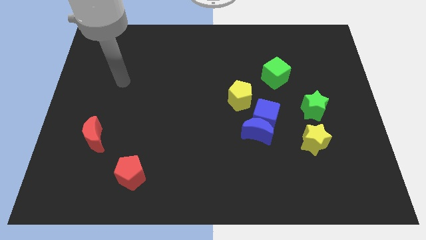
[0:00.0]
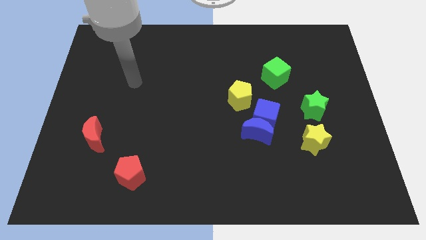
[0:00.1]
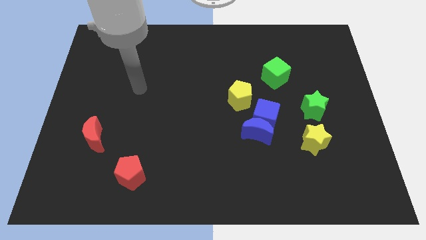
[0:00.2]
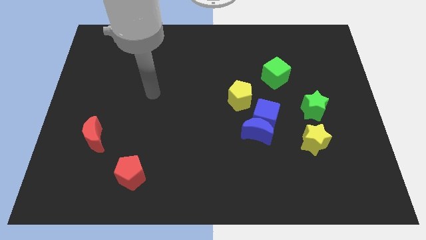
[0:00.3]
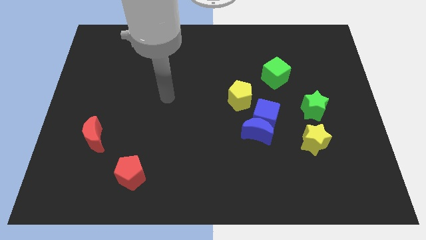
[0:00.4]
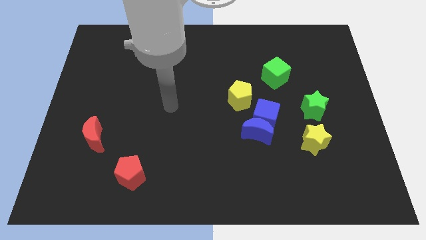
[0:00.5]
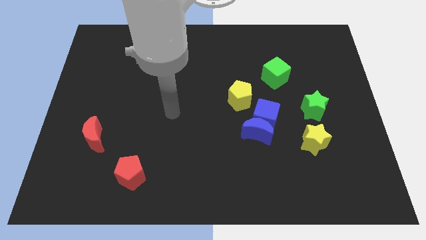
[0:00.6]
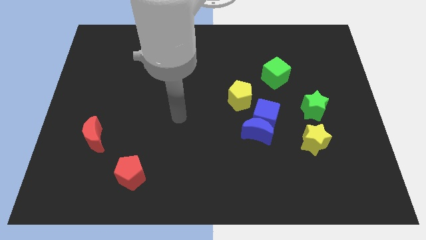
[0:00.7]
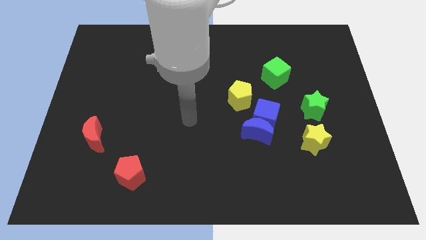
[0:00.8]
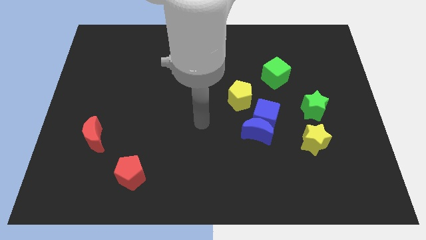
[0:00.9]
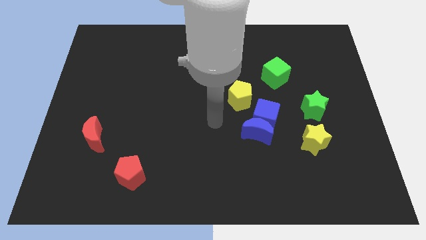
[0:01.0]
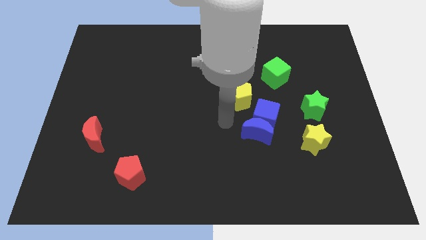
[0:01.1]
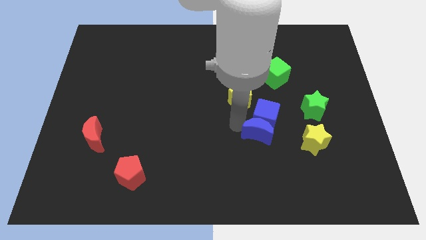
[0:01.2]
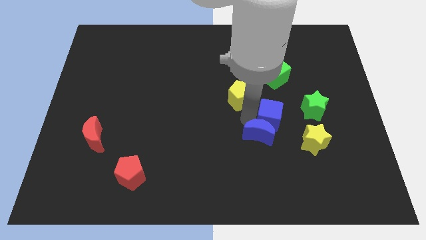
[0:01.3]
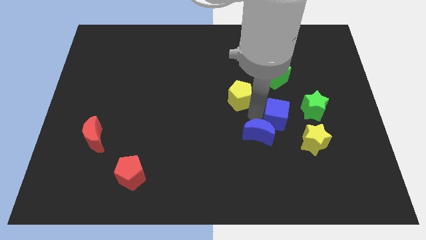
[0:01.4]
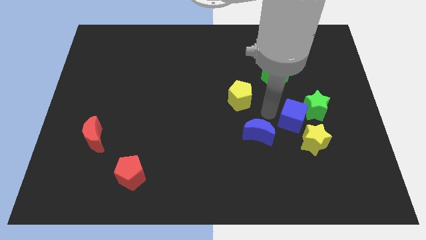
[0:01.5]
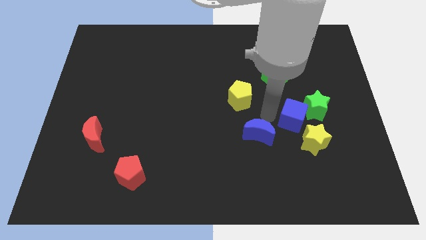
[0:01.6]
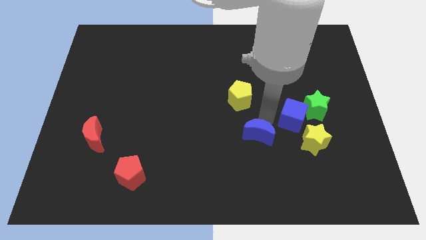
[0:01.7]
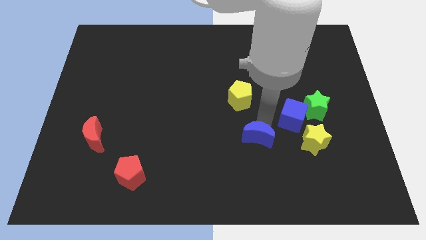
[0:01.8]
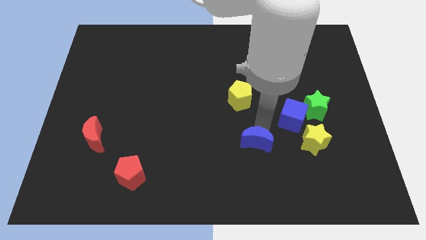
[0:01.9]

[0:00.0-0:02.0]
pull the blue moon apart from the blue cube

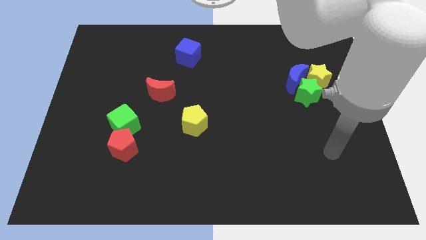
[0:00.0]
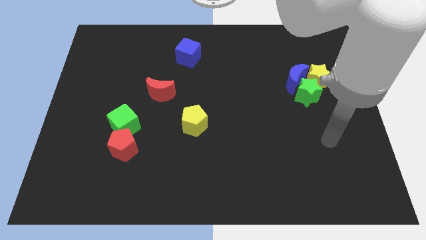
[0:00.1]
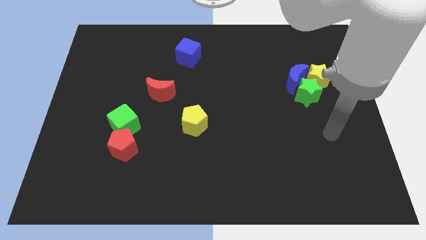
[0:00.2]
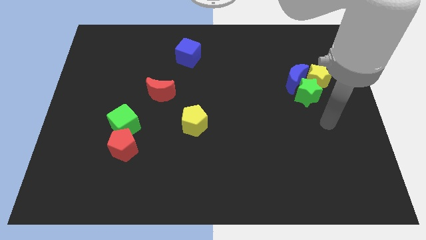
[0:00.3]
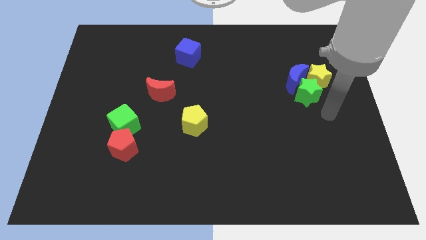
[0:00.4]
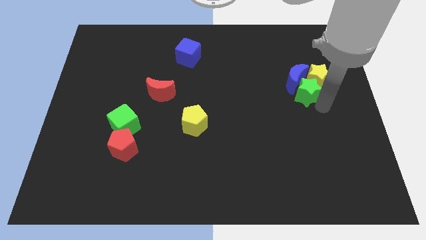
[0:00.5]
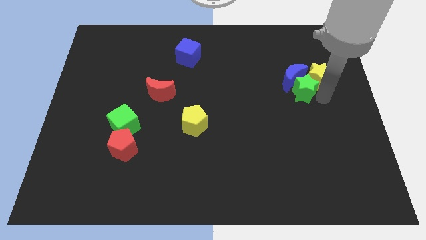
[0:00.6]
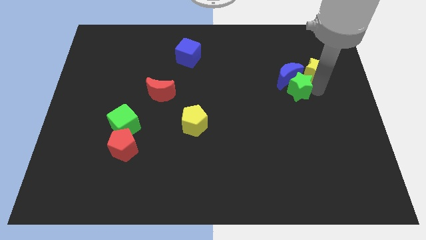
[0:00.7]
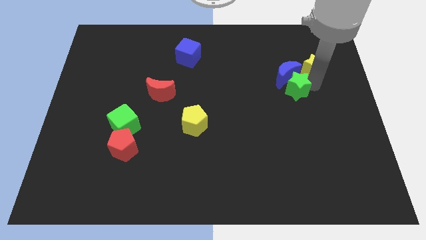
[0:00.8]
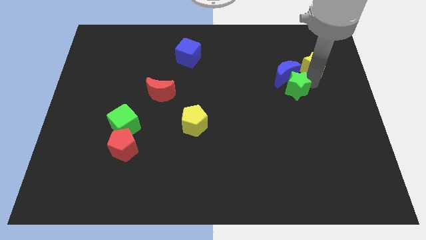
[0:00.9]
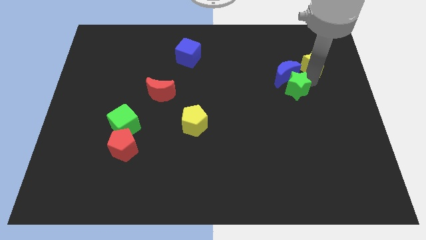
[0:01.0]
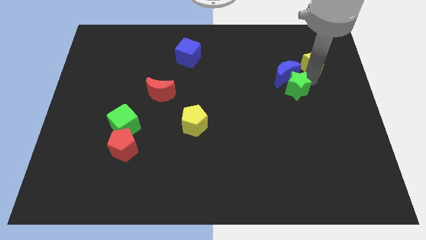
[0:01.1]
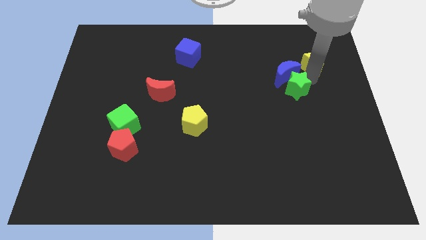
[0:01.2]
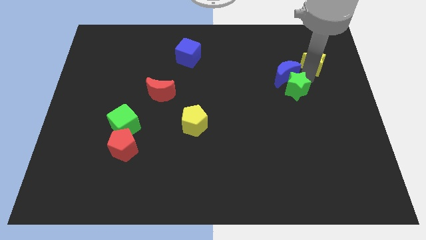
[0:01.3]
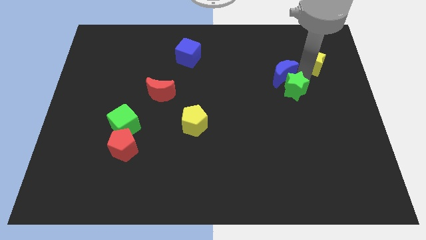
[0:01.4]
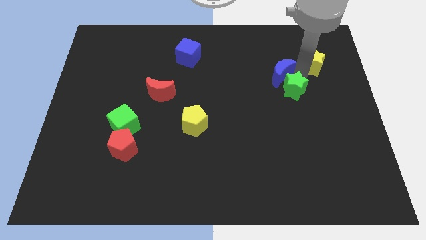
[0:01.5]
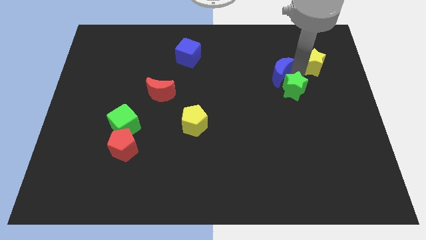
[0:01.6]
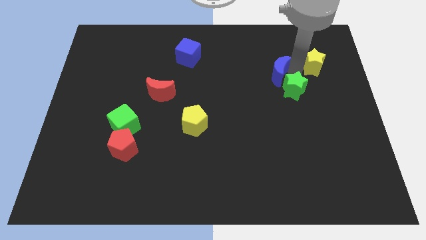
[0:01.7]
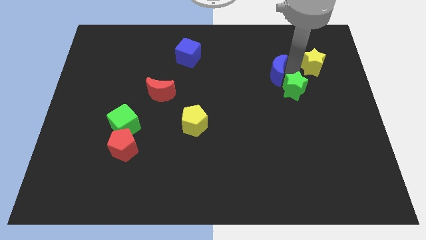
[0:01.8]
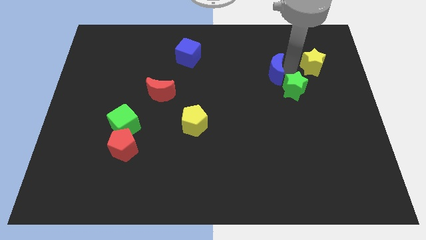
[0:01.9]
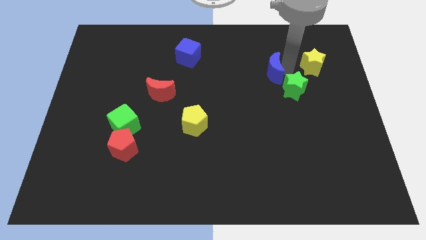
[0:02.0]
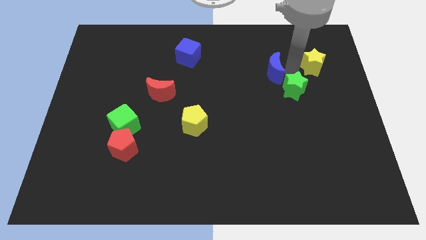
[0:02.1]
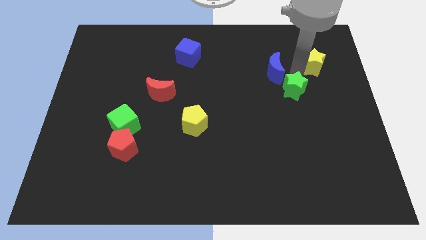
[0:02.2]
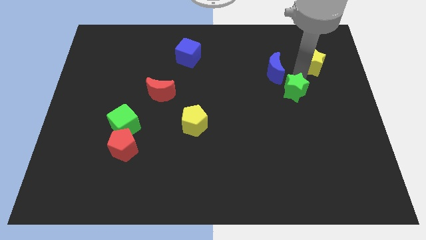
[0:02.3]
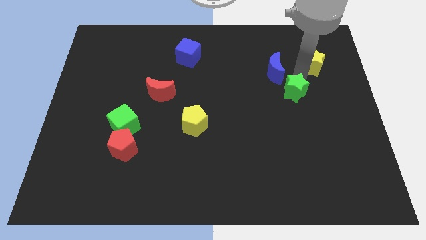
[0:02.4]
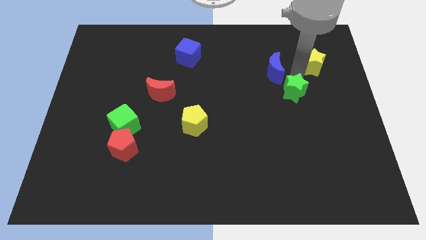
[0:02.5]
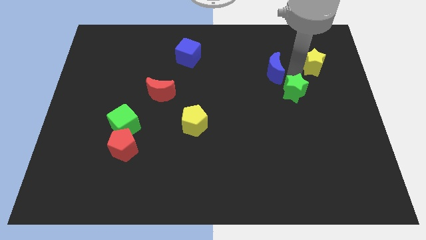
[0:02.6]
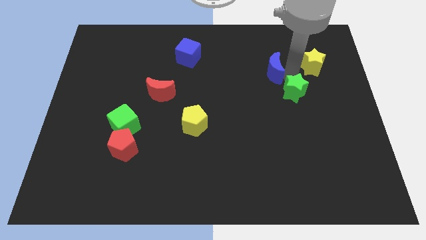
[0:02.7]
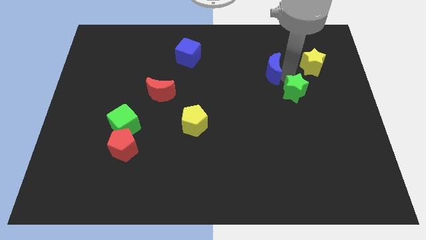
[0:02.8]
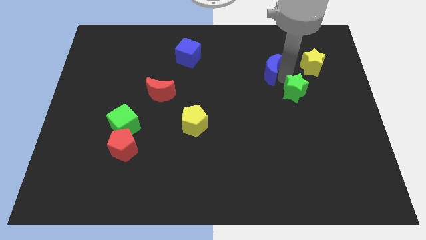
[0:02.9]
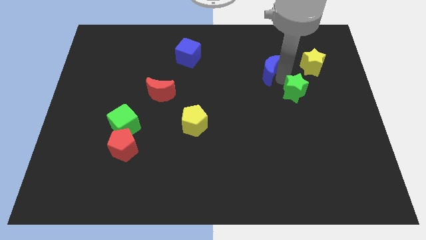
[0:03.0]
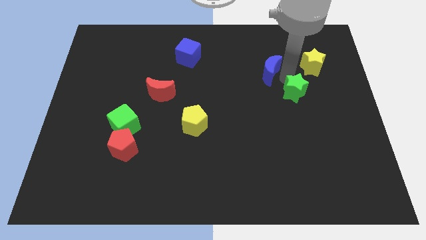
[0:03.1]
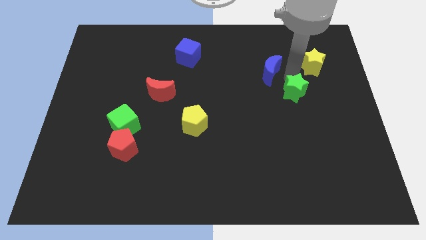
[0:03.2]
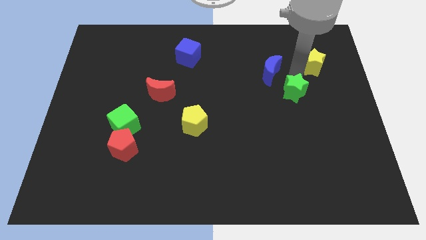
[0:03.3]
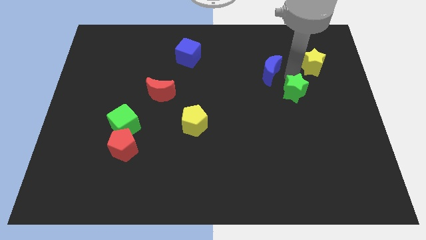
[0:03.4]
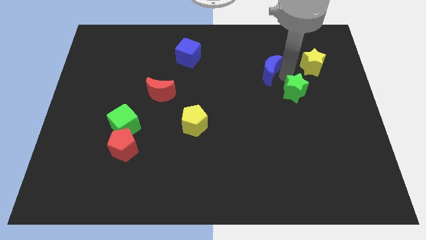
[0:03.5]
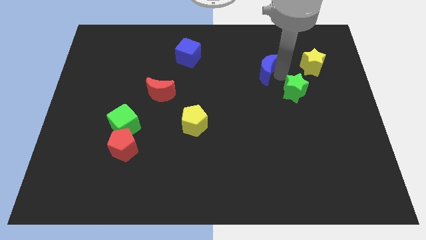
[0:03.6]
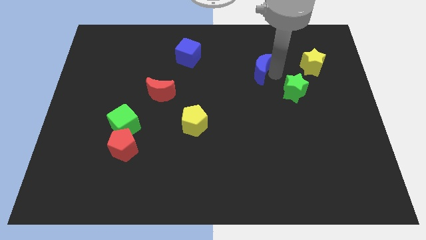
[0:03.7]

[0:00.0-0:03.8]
separate the blue moon from the green star and yellow star

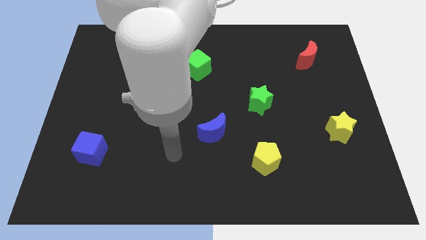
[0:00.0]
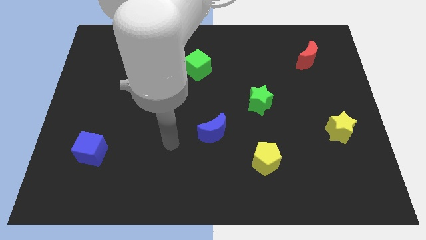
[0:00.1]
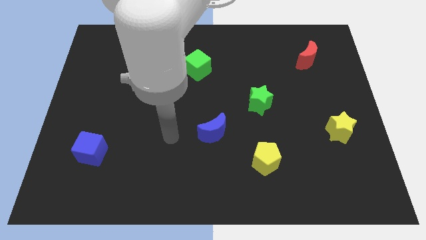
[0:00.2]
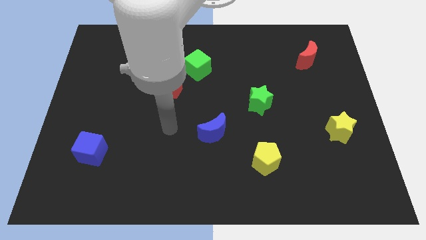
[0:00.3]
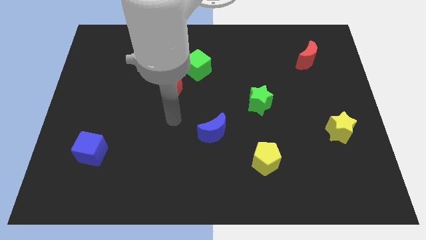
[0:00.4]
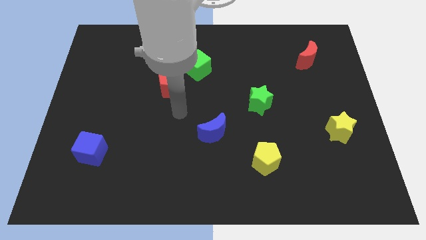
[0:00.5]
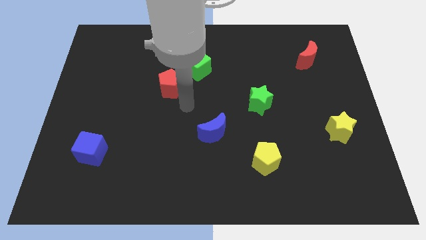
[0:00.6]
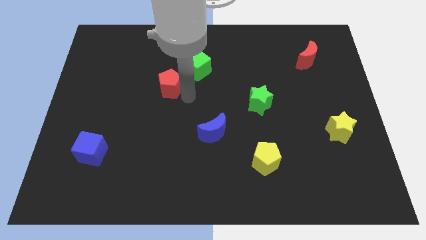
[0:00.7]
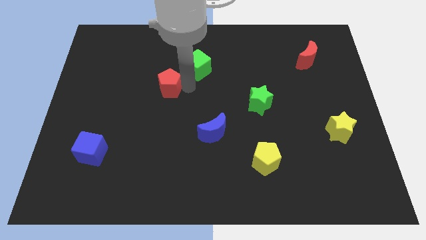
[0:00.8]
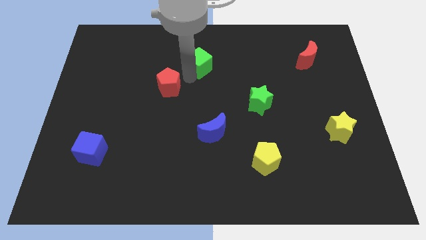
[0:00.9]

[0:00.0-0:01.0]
separate the red pentagon from the green cube

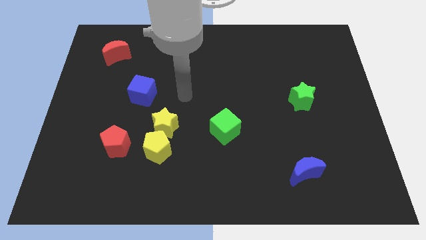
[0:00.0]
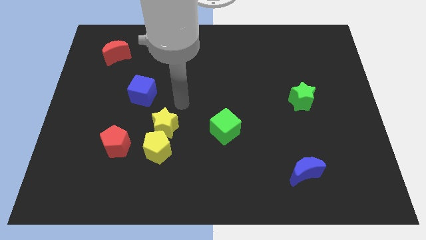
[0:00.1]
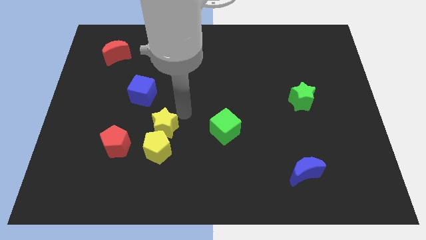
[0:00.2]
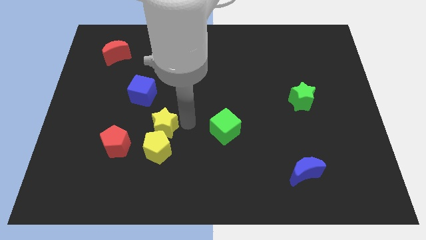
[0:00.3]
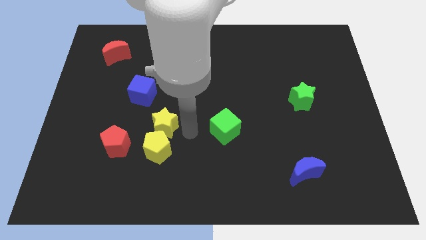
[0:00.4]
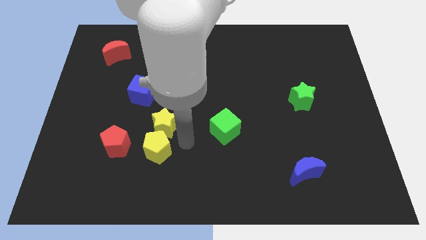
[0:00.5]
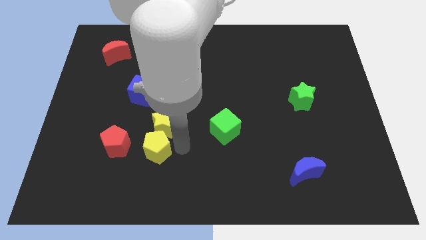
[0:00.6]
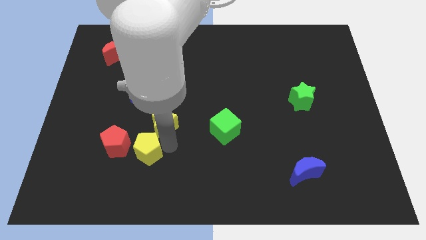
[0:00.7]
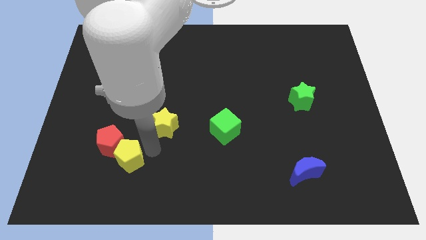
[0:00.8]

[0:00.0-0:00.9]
move the yellow star away from the yellow pentagon

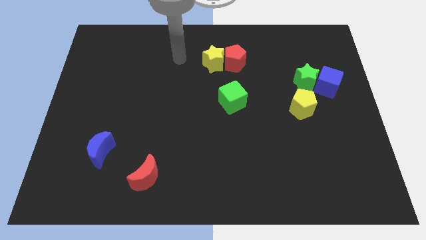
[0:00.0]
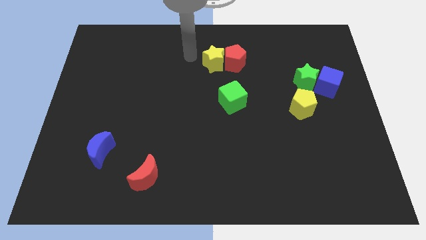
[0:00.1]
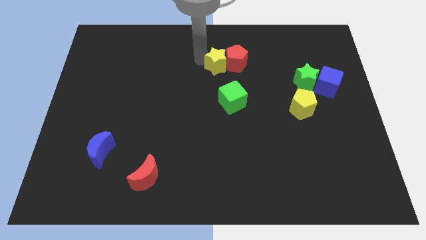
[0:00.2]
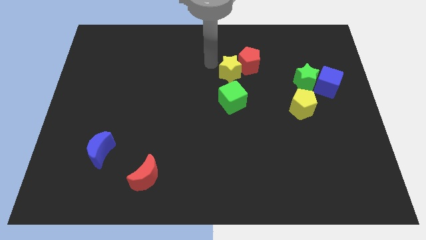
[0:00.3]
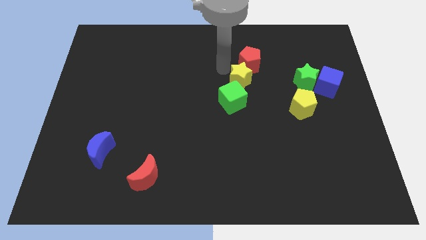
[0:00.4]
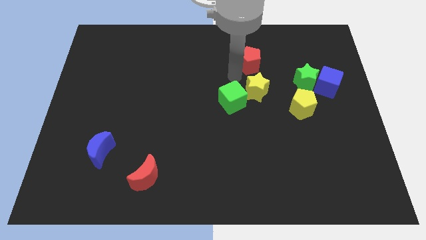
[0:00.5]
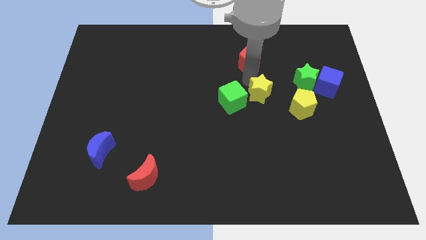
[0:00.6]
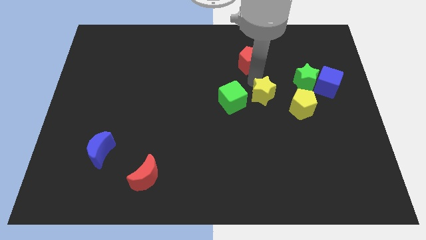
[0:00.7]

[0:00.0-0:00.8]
pull the red pentagon apart from the yellow star

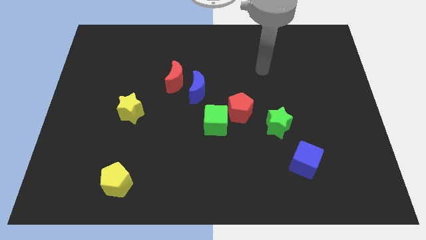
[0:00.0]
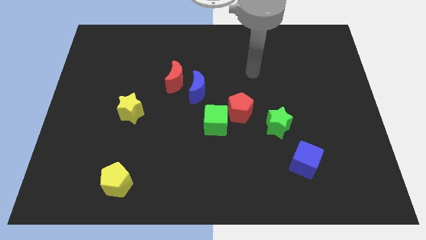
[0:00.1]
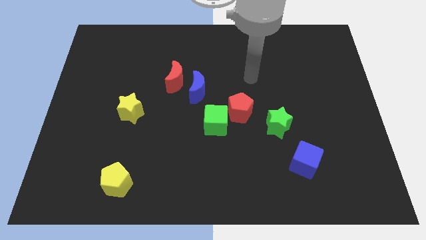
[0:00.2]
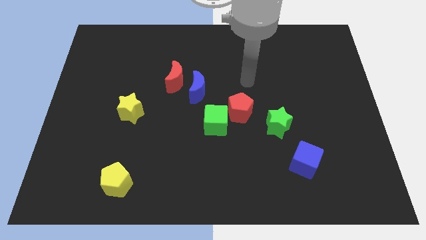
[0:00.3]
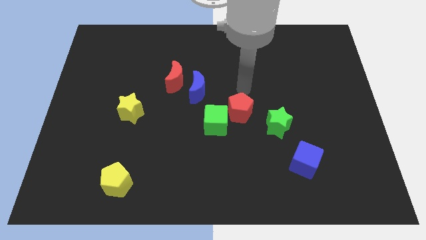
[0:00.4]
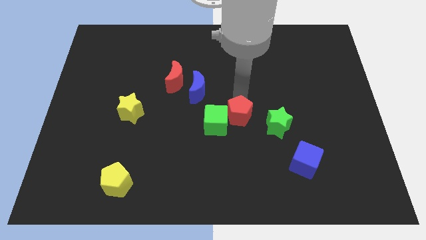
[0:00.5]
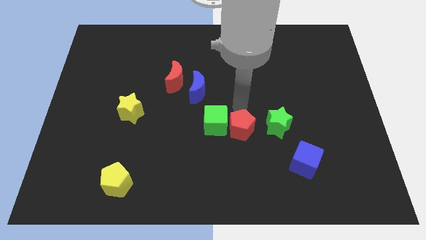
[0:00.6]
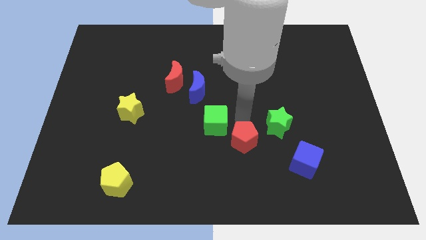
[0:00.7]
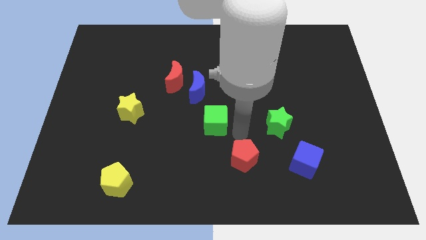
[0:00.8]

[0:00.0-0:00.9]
separate the green cube from the red pentagon

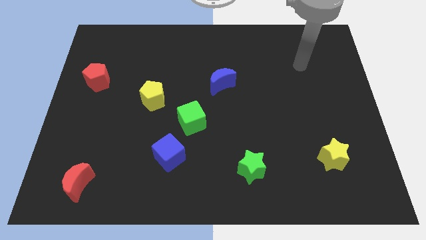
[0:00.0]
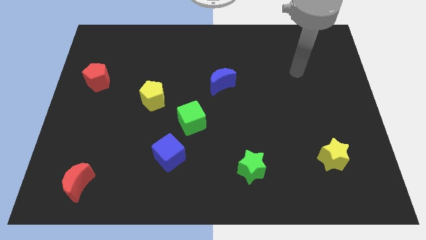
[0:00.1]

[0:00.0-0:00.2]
separate the blue cube from the green cube
